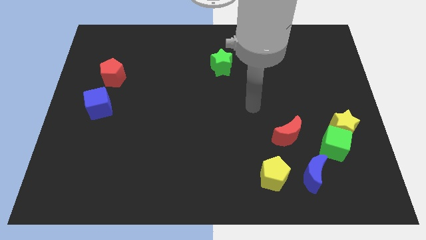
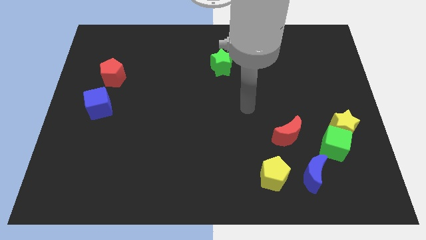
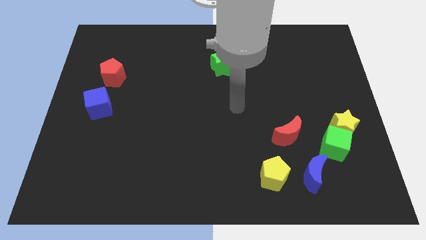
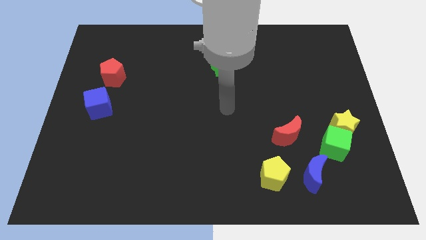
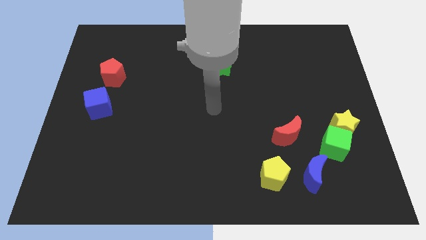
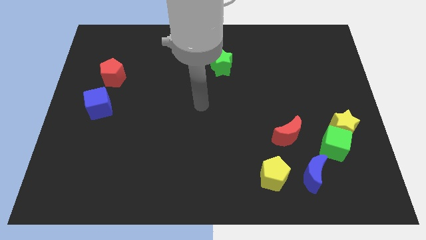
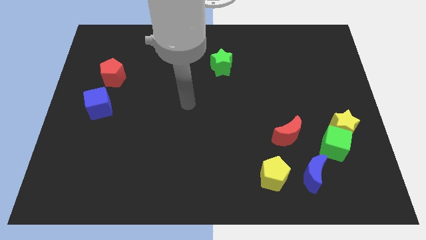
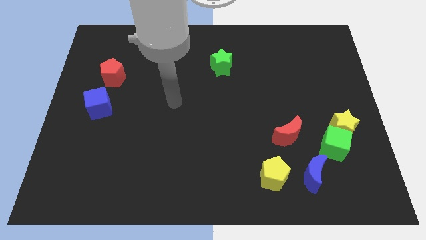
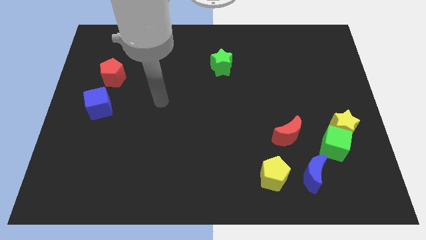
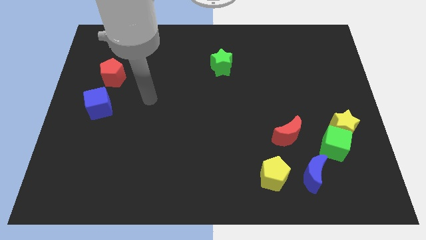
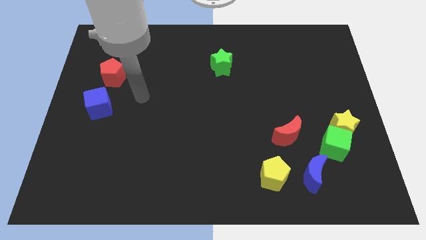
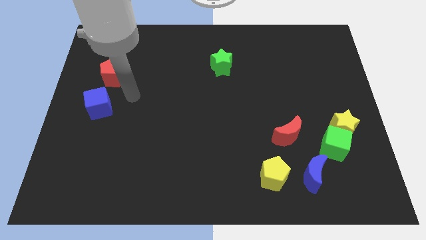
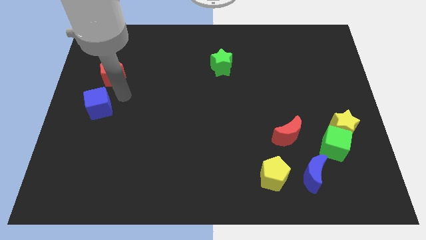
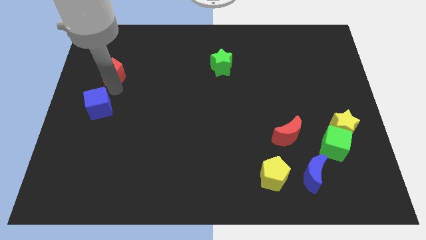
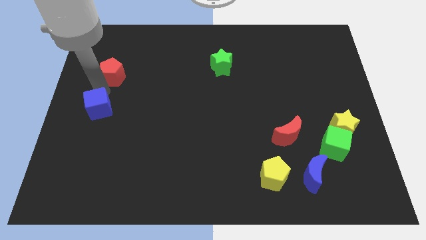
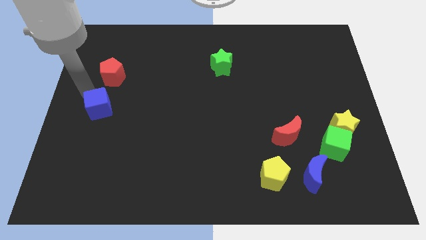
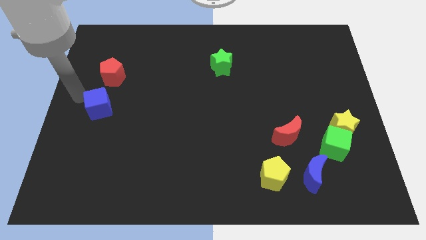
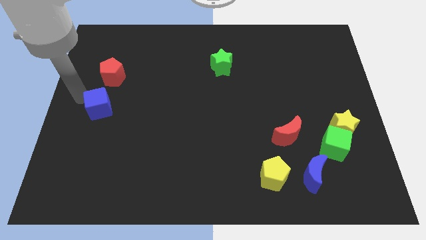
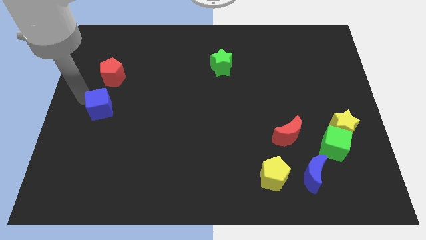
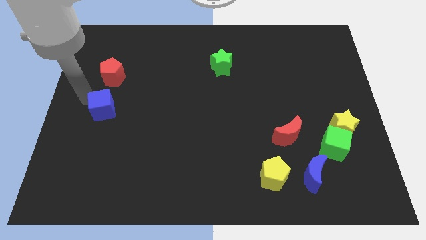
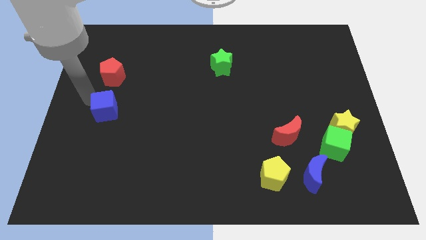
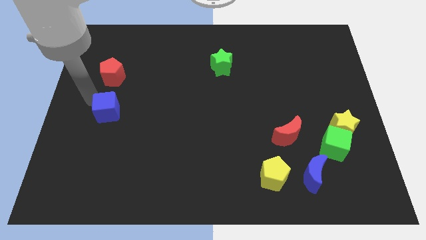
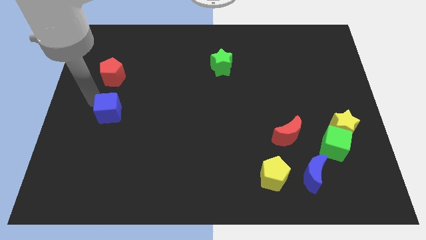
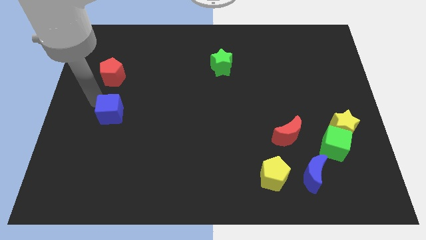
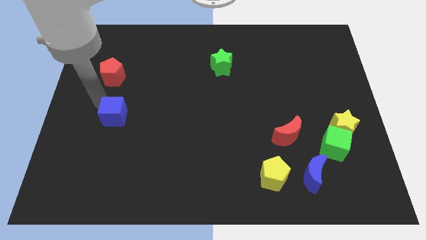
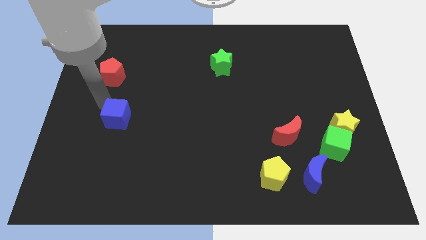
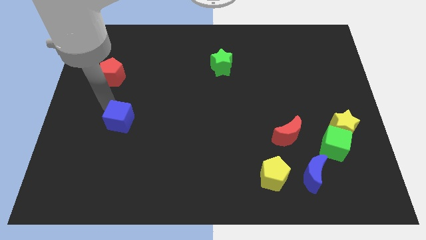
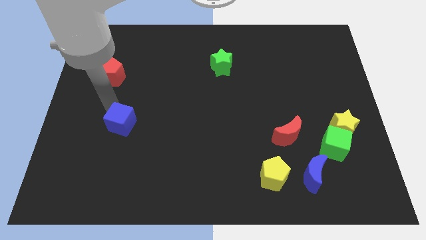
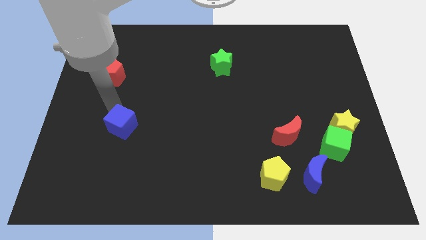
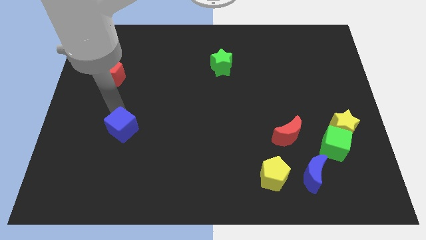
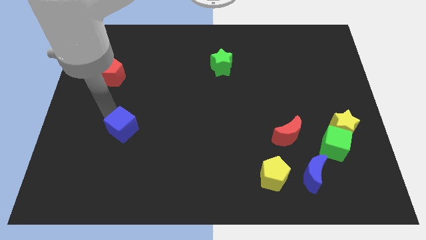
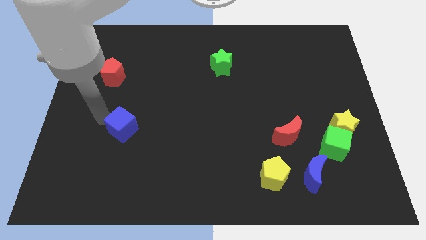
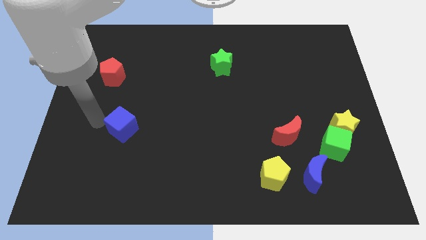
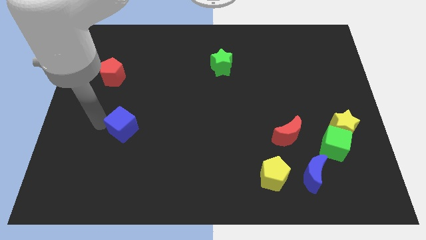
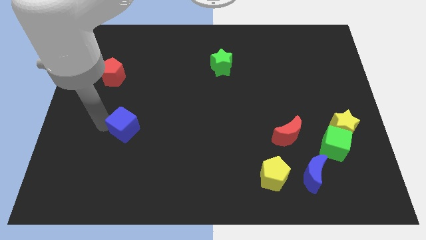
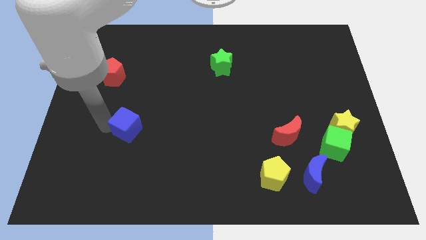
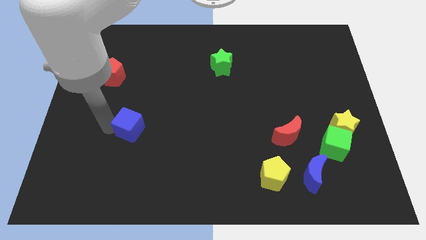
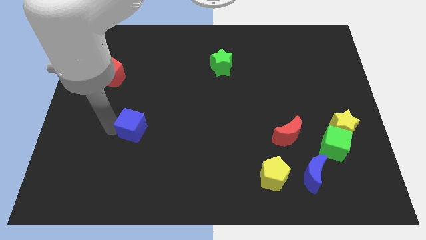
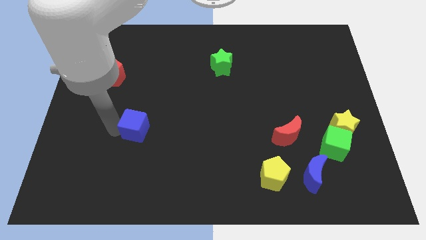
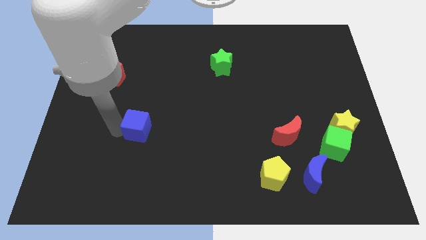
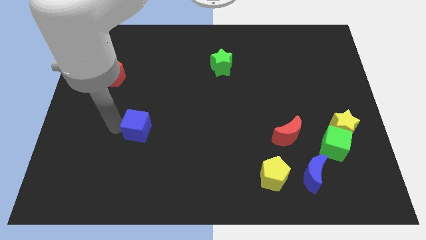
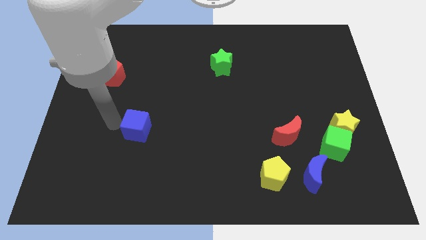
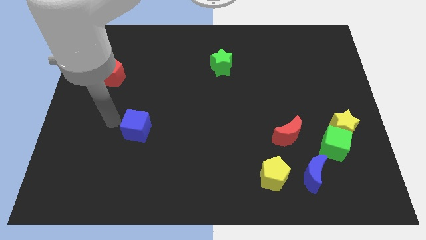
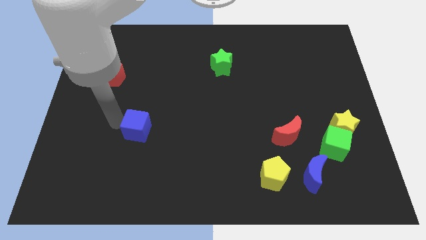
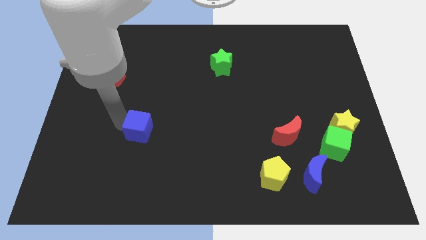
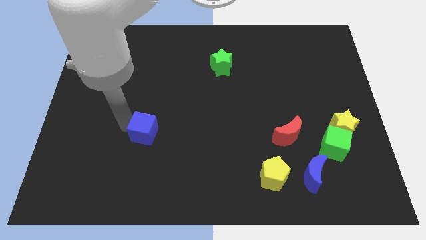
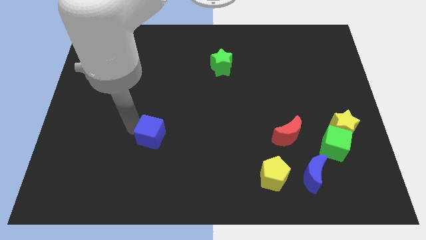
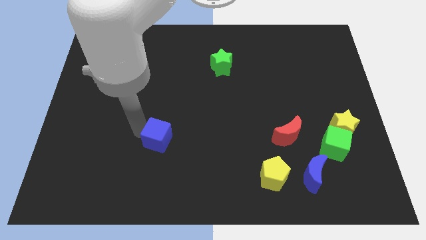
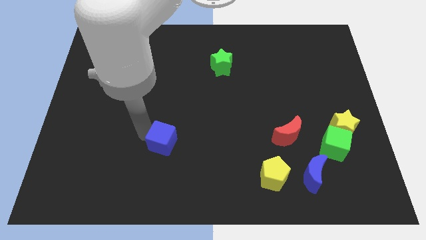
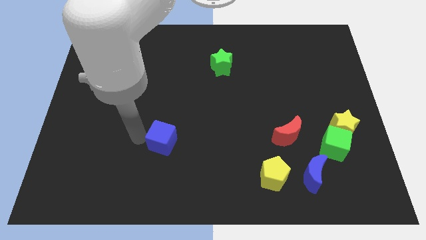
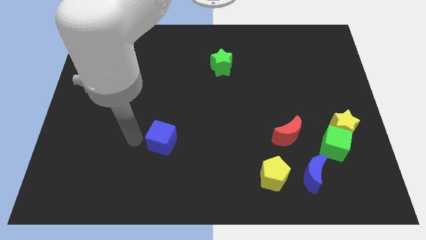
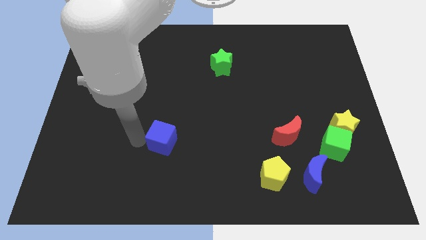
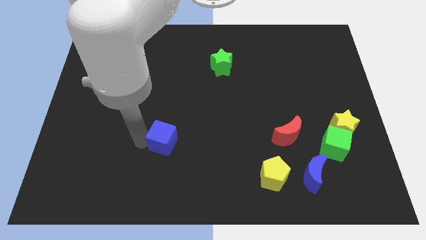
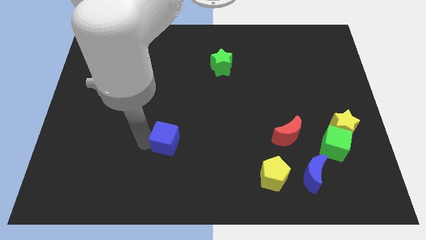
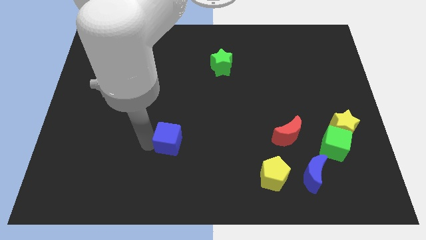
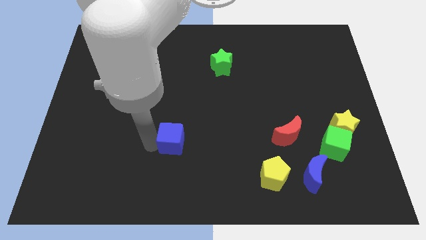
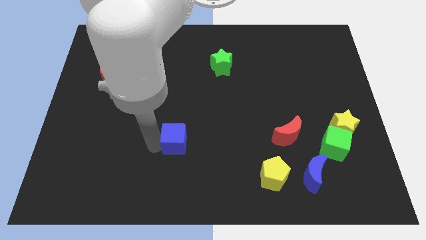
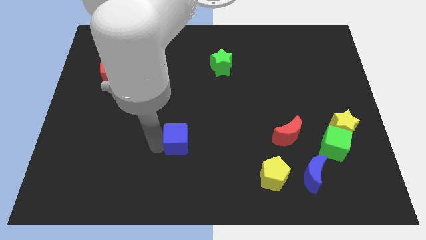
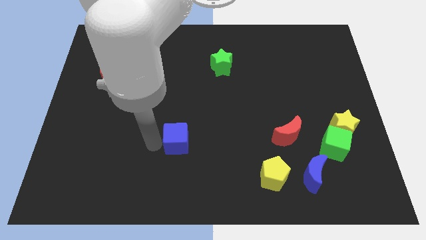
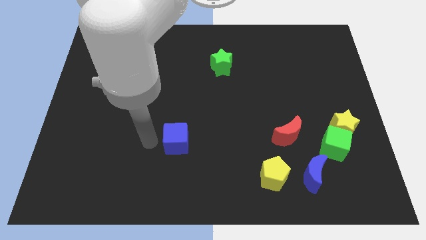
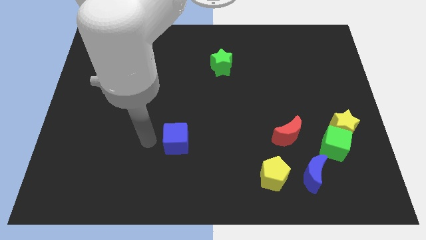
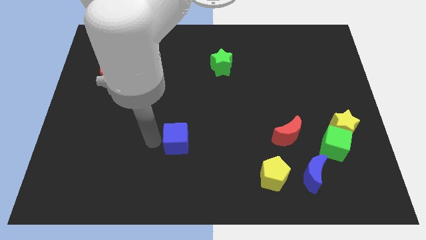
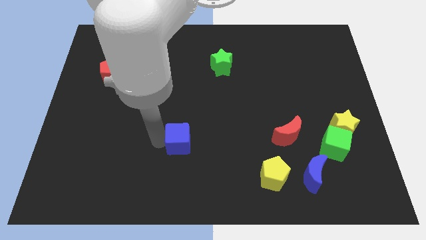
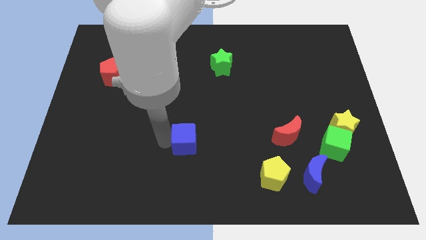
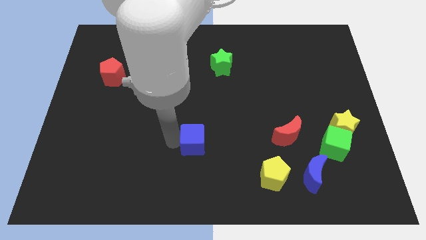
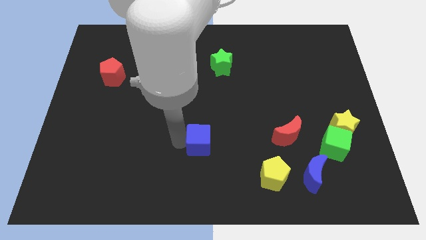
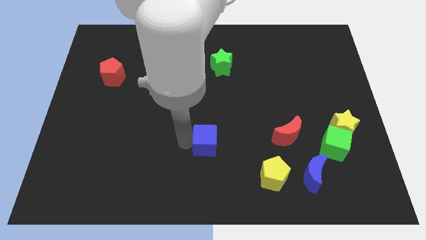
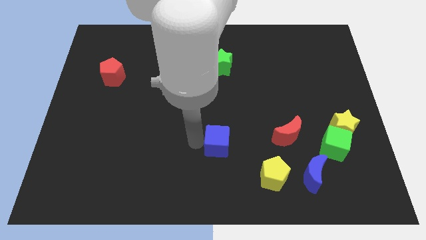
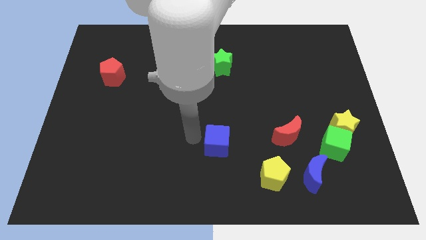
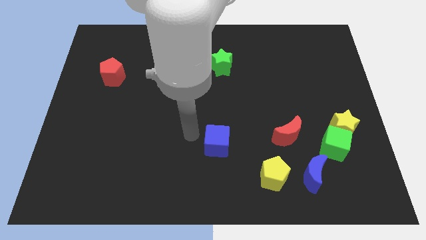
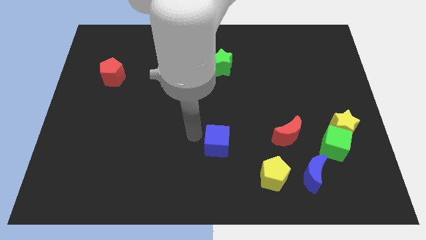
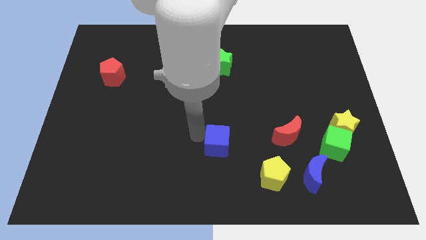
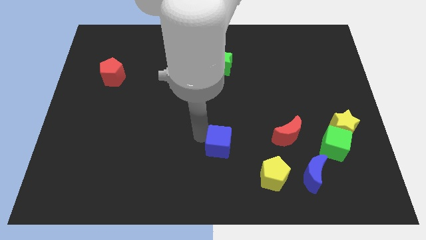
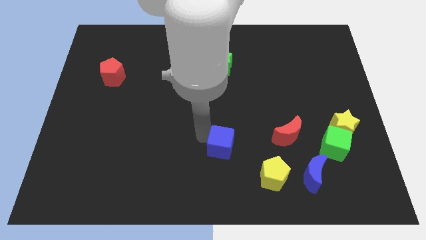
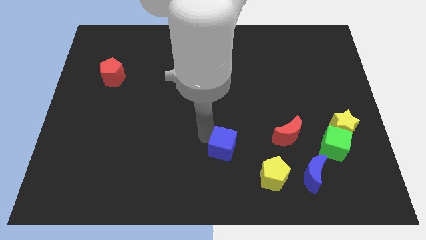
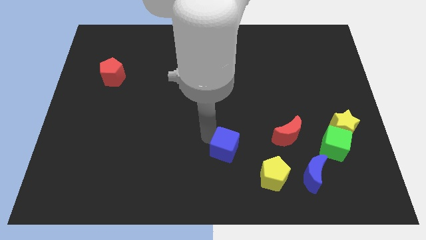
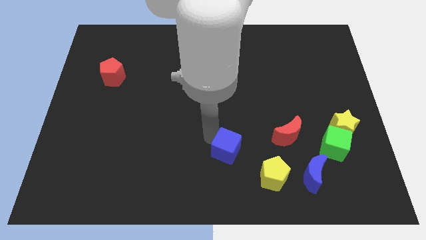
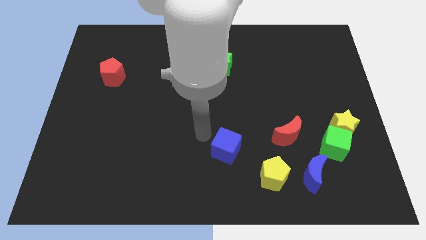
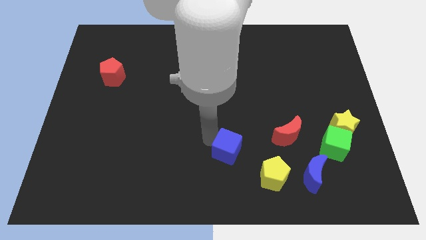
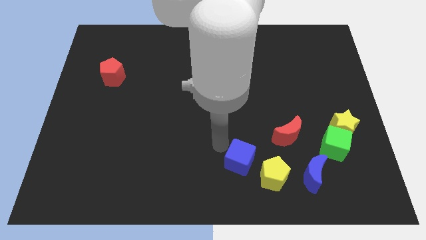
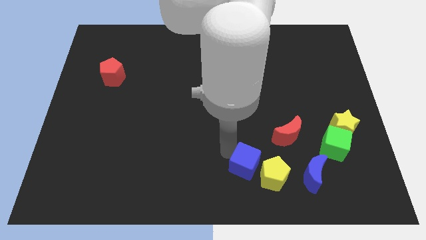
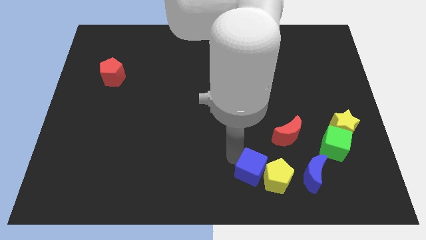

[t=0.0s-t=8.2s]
push the blue cube to the yellow pentagon

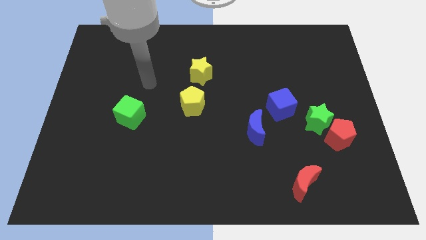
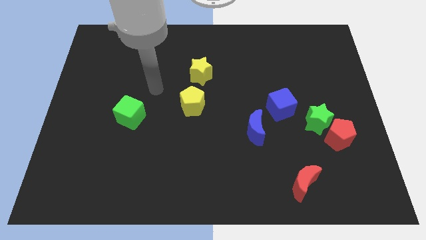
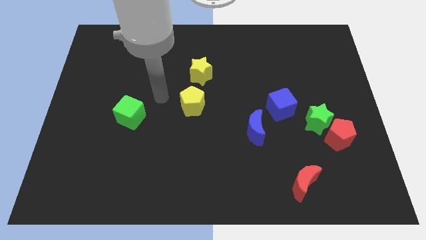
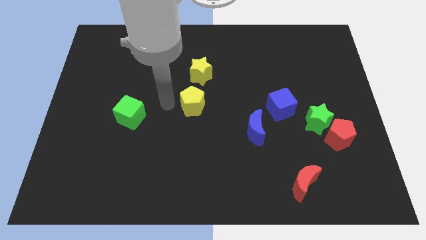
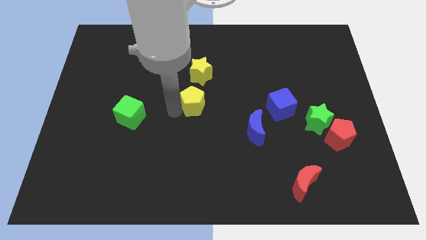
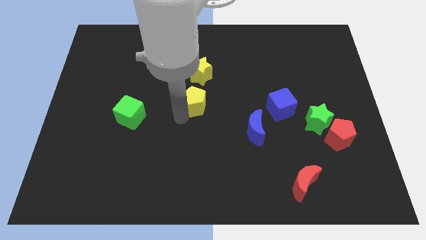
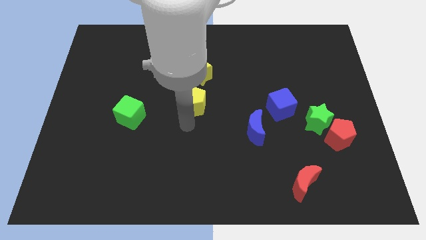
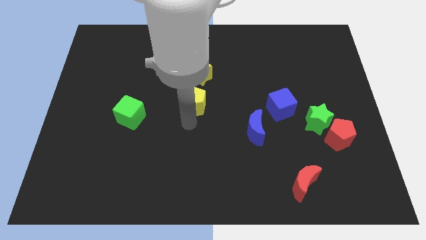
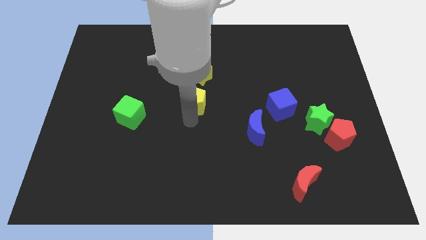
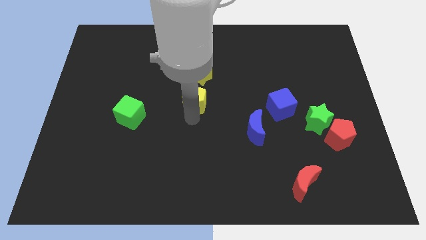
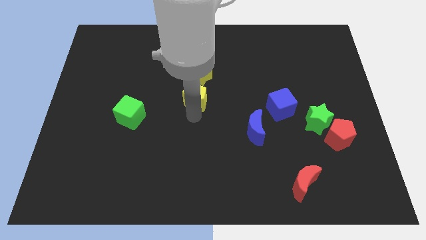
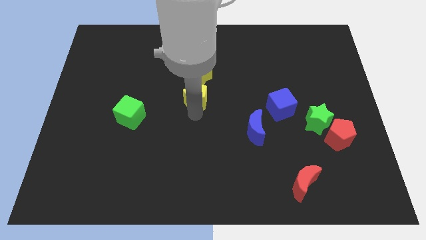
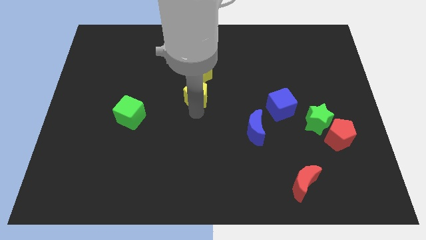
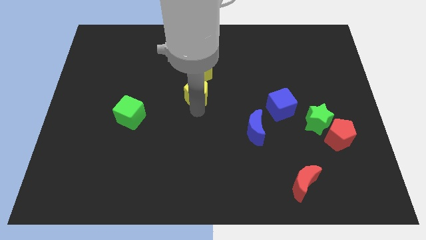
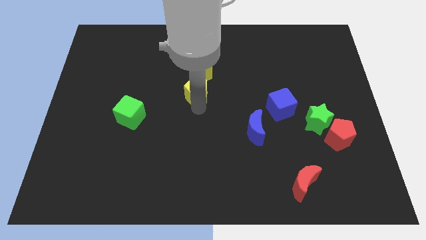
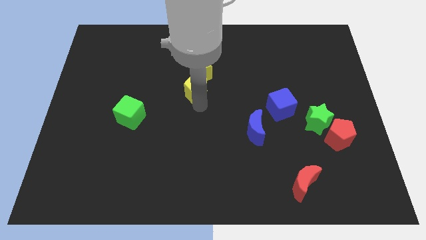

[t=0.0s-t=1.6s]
slide the yellow pentagon close to the yellow star
